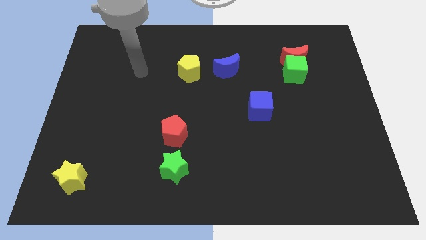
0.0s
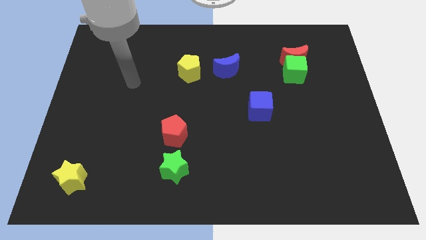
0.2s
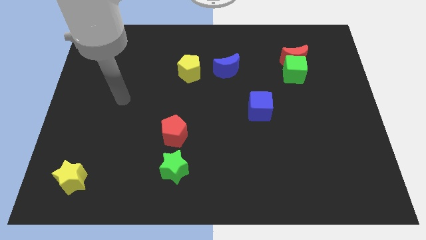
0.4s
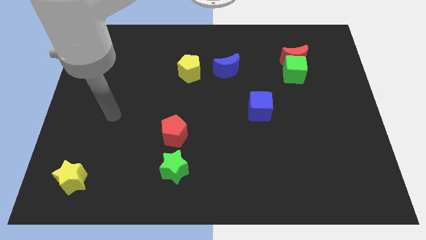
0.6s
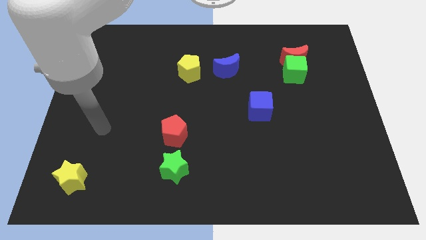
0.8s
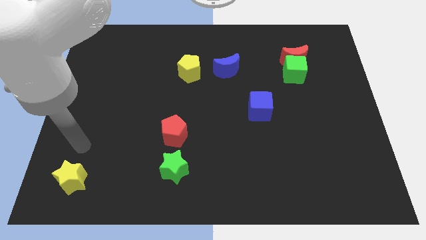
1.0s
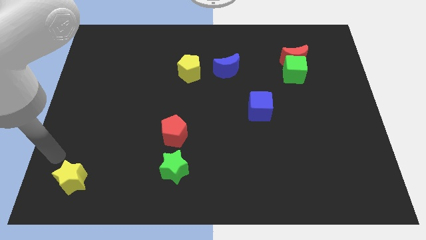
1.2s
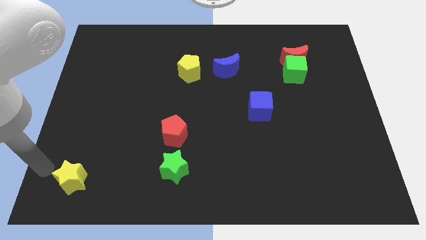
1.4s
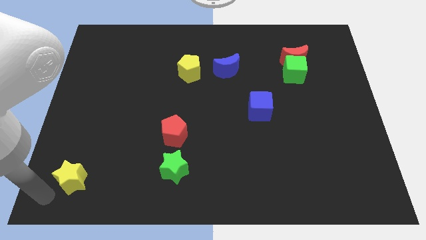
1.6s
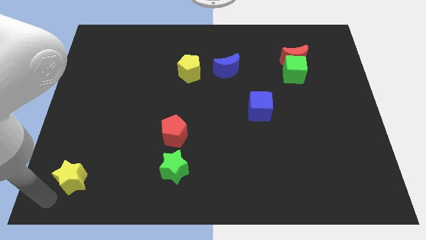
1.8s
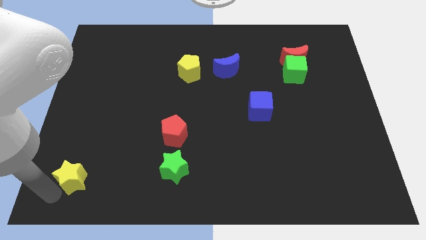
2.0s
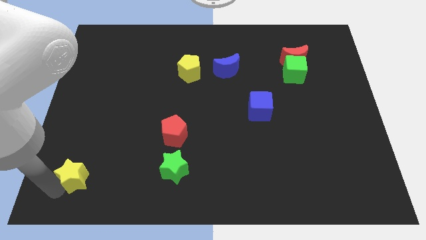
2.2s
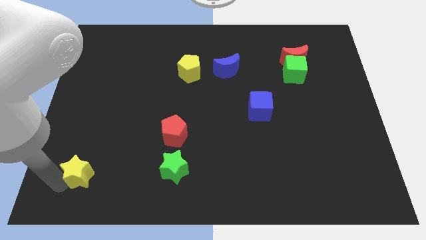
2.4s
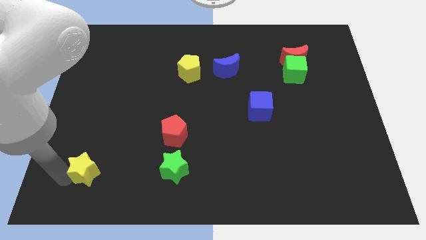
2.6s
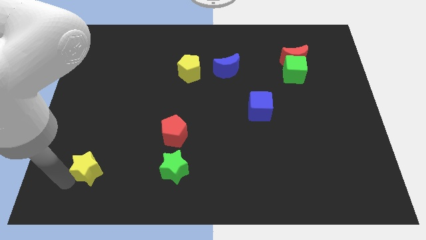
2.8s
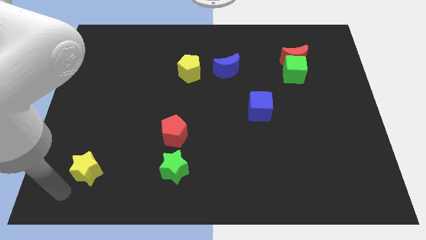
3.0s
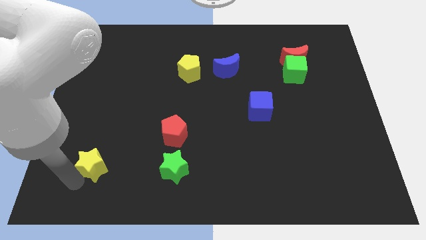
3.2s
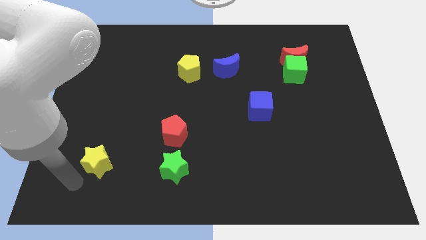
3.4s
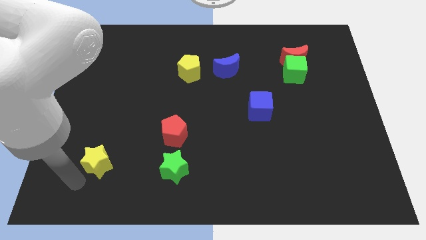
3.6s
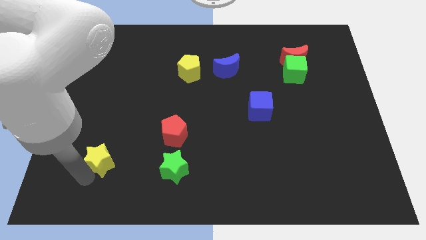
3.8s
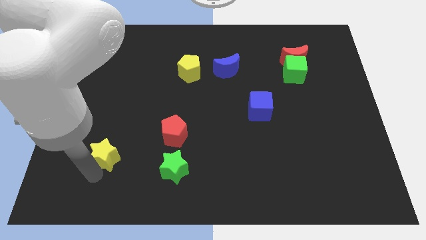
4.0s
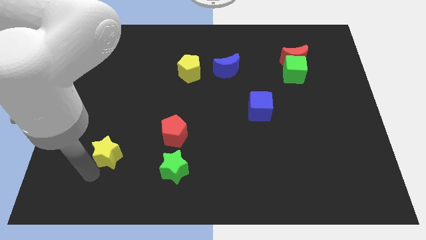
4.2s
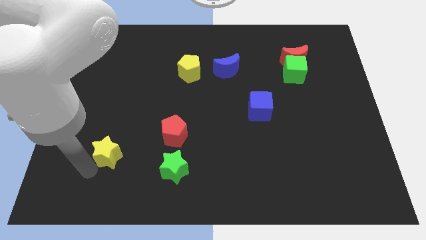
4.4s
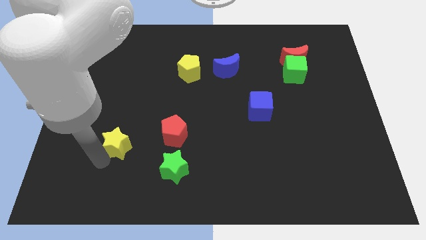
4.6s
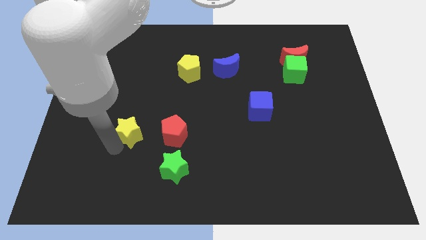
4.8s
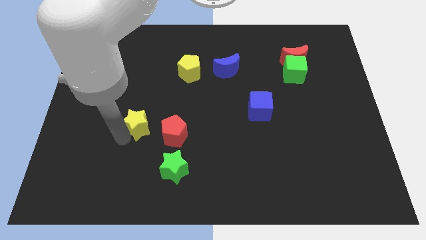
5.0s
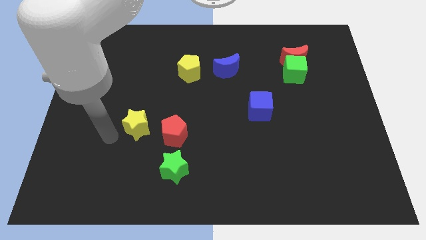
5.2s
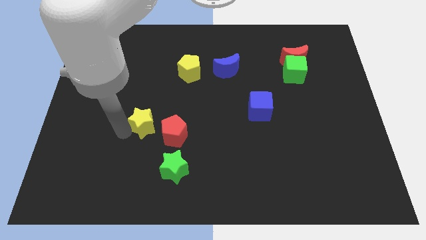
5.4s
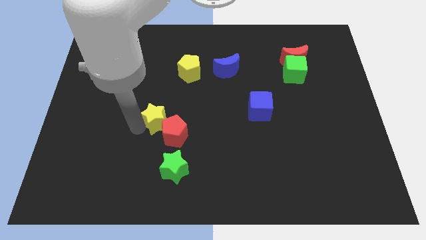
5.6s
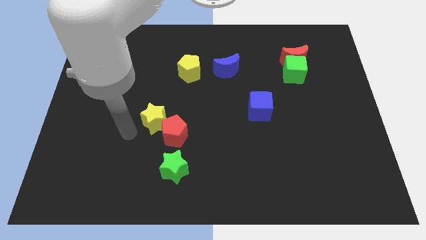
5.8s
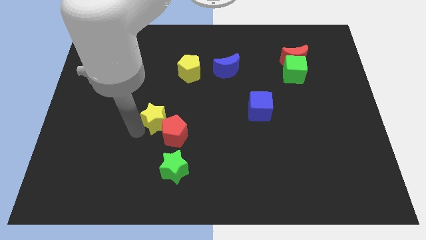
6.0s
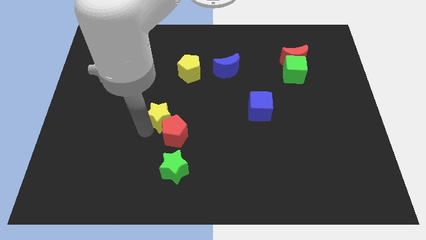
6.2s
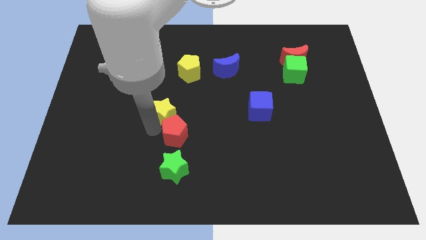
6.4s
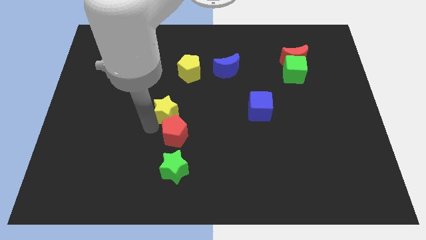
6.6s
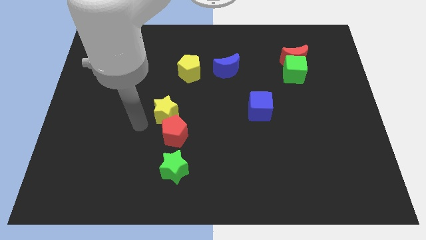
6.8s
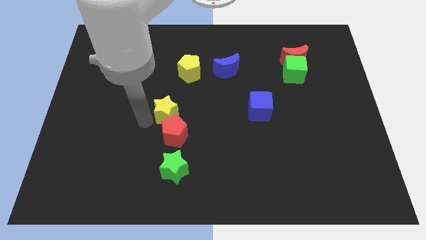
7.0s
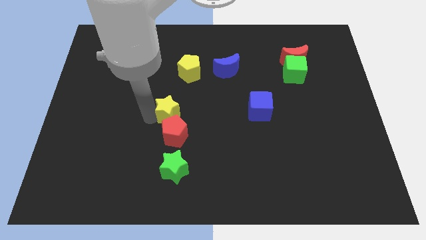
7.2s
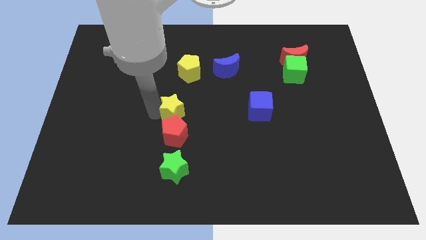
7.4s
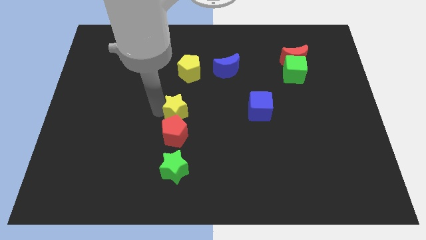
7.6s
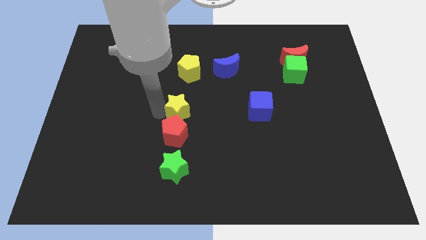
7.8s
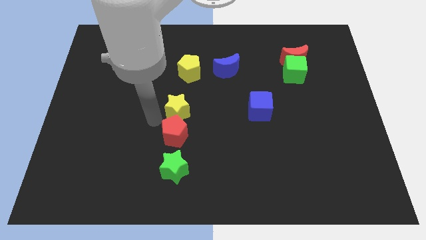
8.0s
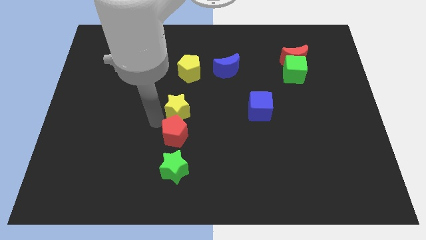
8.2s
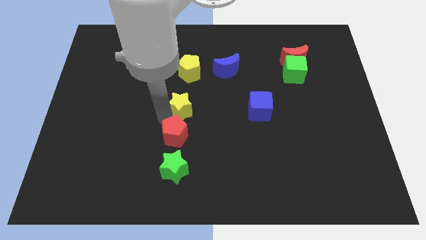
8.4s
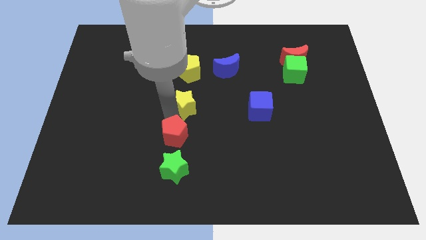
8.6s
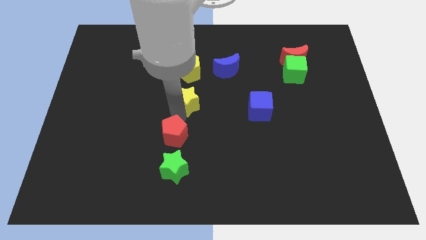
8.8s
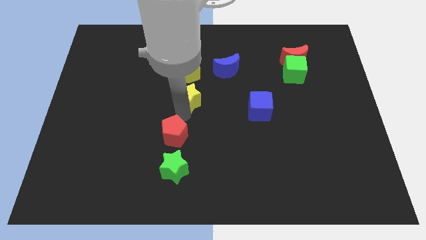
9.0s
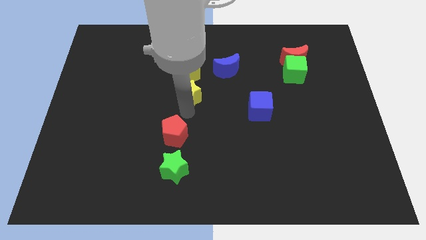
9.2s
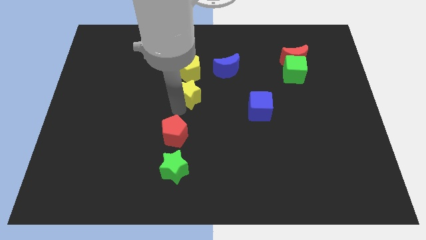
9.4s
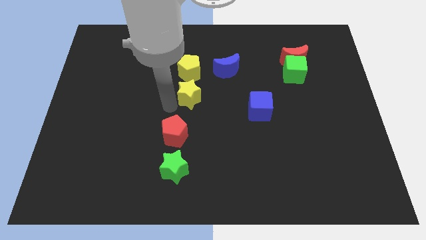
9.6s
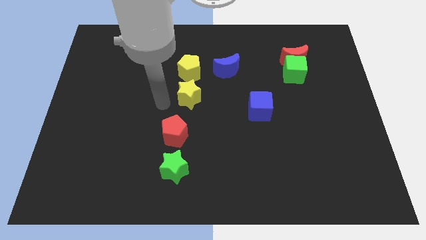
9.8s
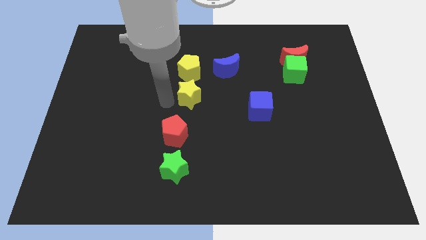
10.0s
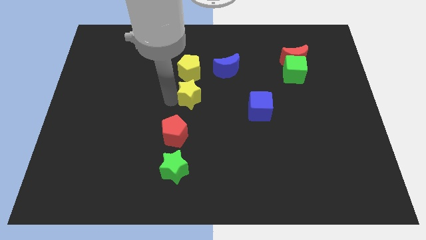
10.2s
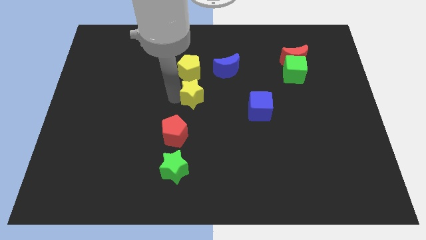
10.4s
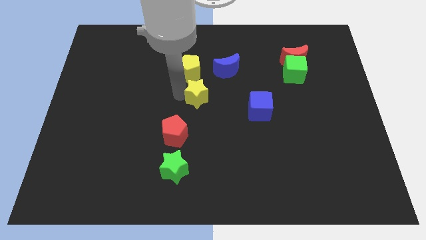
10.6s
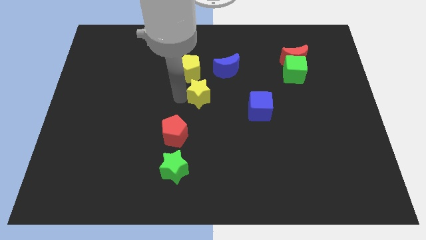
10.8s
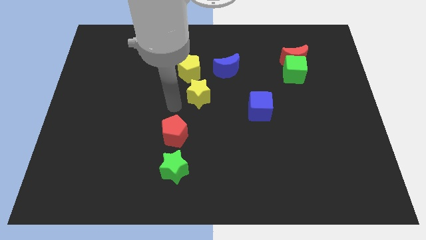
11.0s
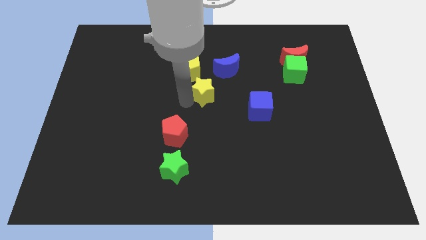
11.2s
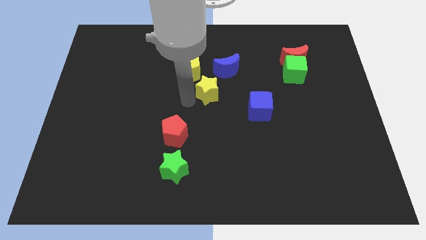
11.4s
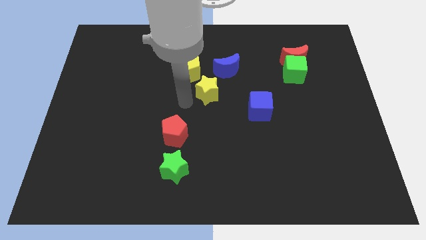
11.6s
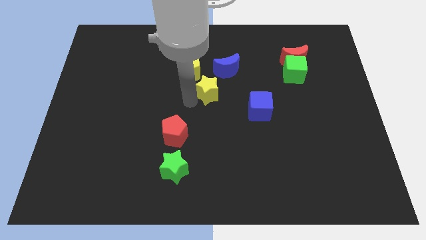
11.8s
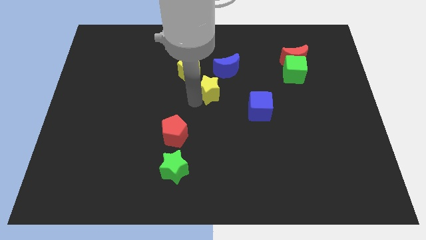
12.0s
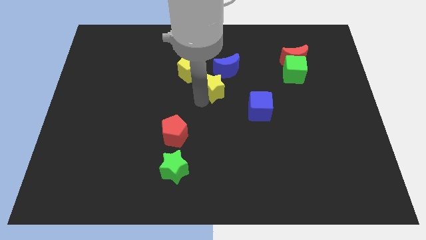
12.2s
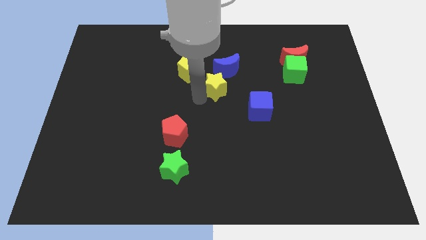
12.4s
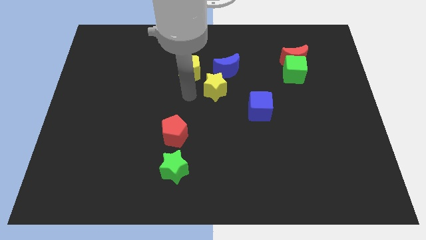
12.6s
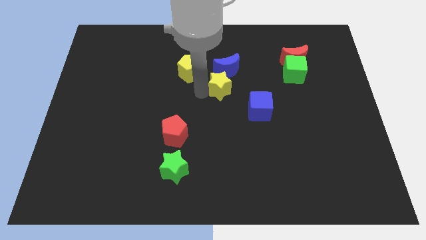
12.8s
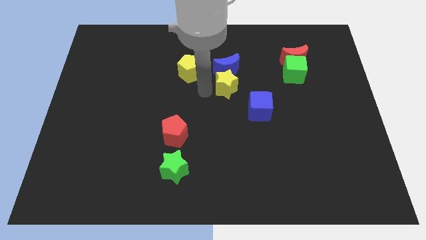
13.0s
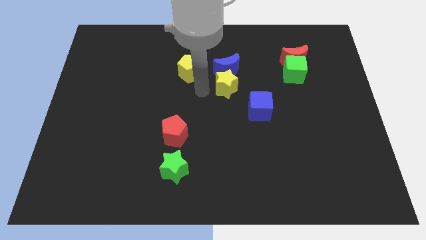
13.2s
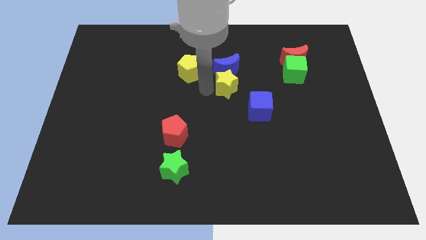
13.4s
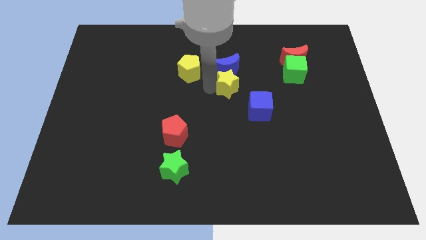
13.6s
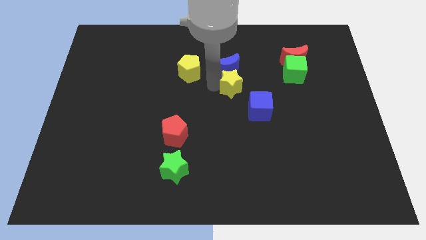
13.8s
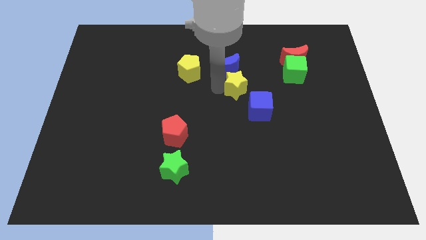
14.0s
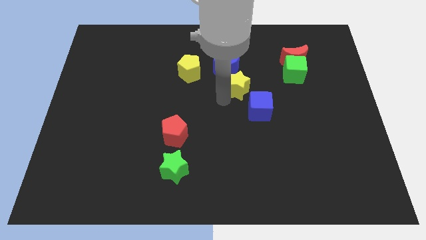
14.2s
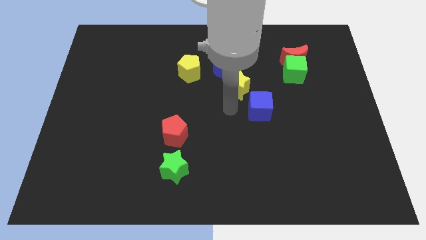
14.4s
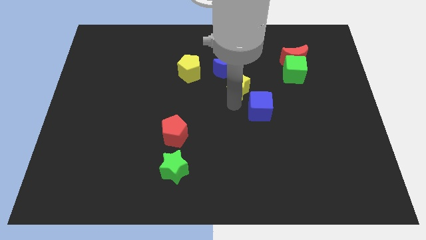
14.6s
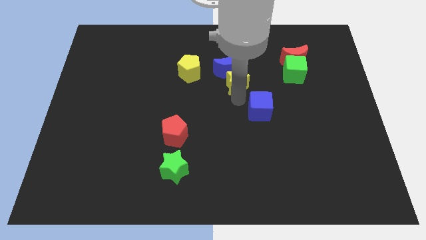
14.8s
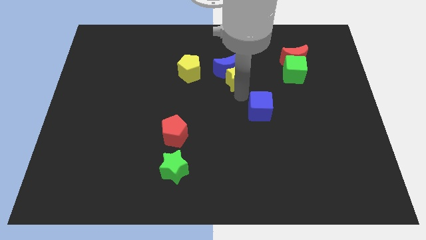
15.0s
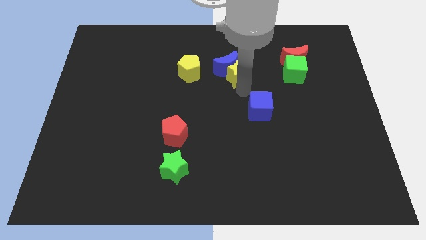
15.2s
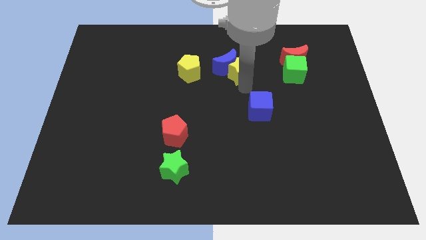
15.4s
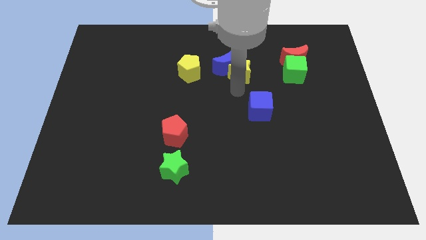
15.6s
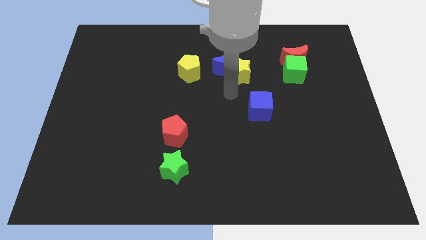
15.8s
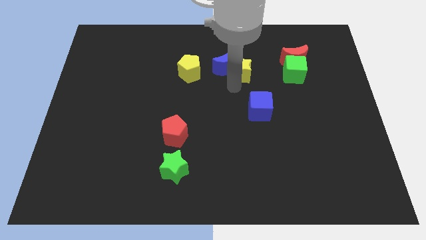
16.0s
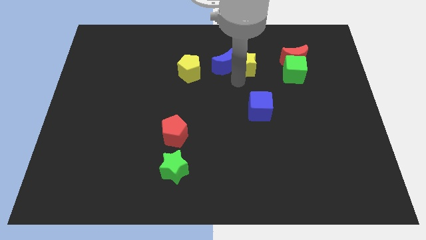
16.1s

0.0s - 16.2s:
push the yellow star to the top right side of the blue moon
